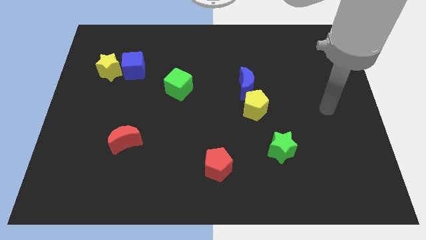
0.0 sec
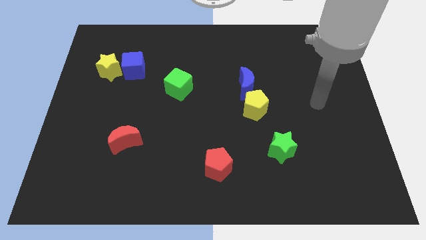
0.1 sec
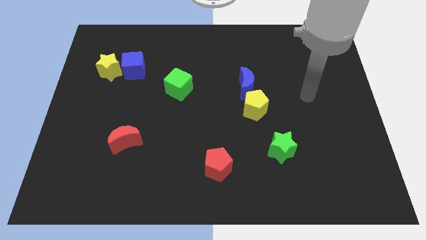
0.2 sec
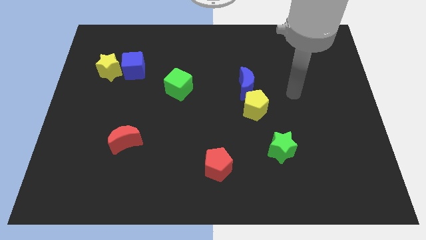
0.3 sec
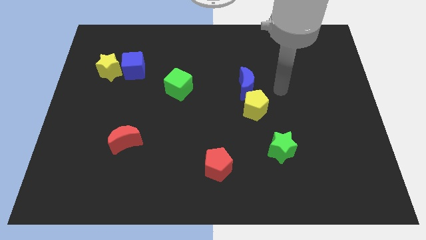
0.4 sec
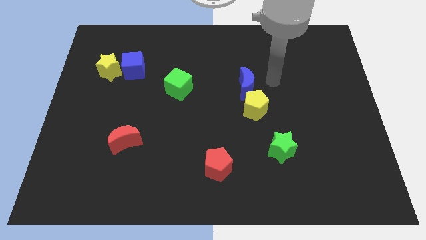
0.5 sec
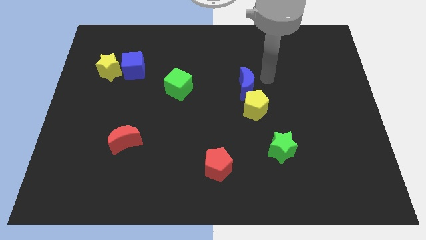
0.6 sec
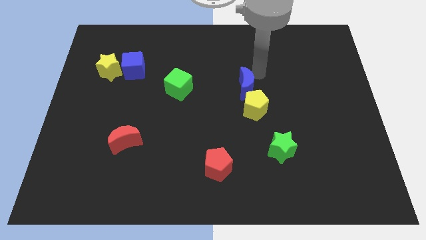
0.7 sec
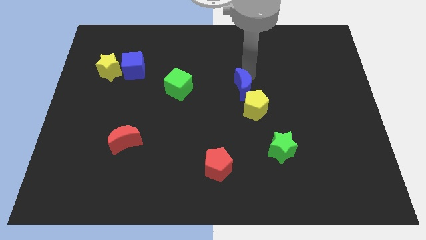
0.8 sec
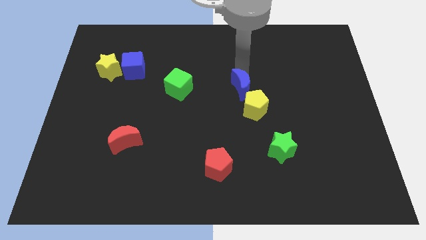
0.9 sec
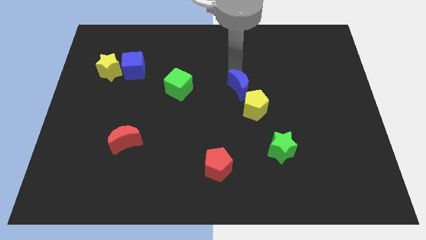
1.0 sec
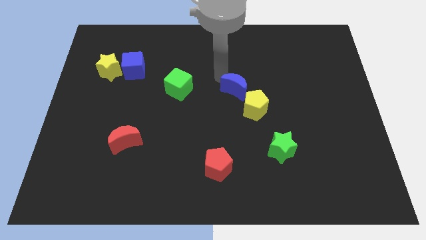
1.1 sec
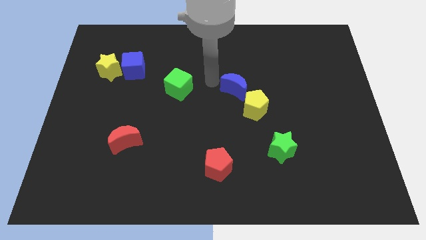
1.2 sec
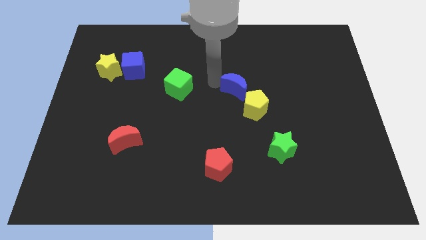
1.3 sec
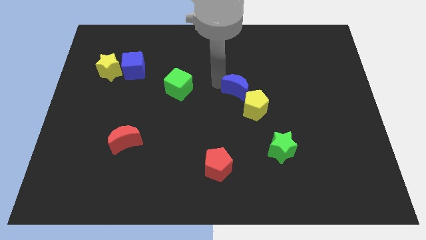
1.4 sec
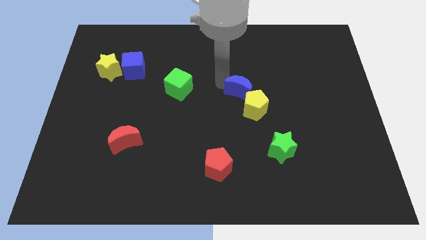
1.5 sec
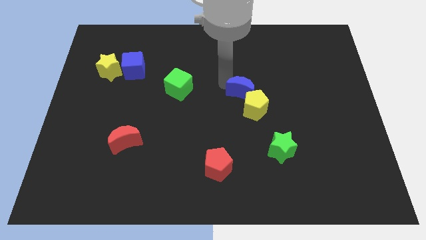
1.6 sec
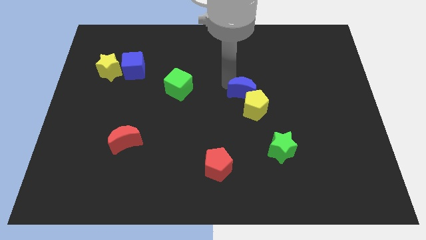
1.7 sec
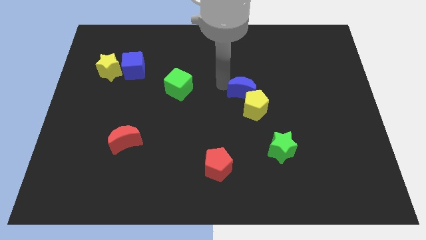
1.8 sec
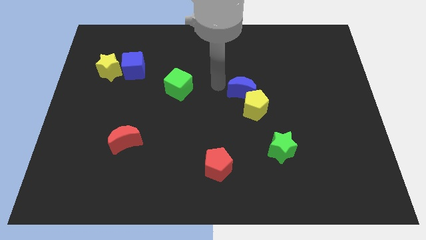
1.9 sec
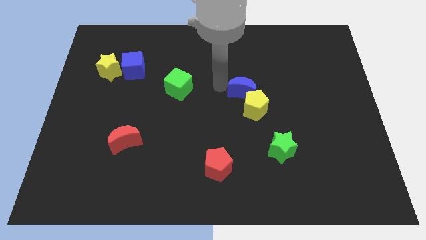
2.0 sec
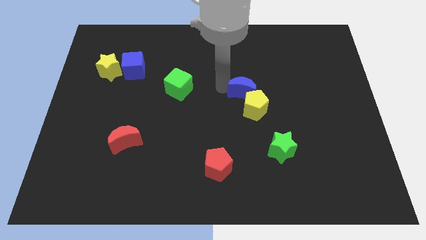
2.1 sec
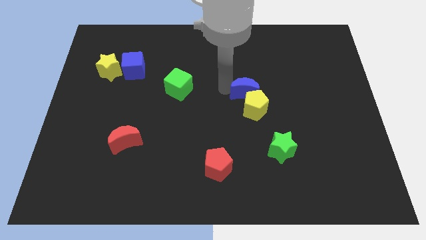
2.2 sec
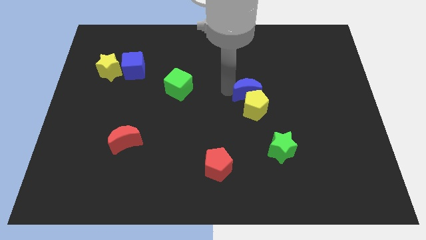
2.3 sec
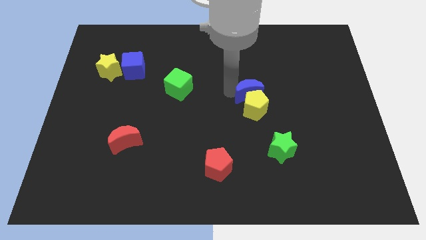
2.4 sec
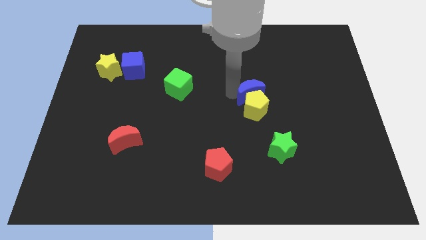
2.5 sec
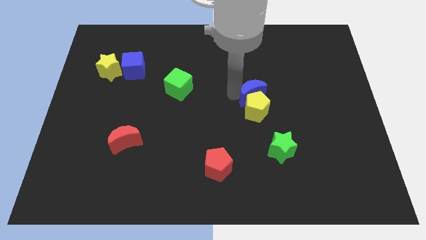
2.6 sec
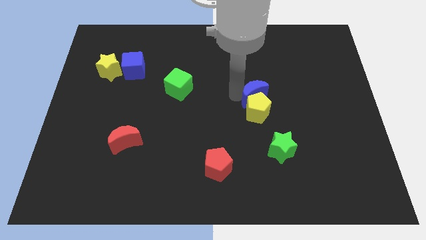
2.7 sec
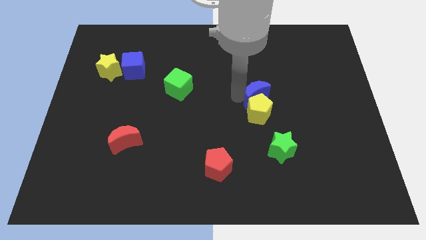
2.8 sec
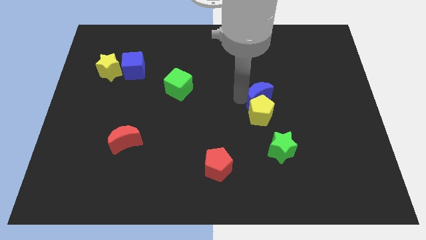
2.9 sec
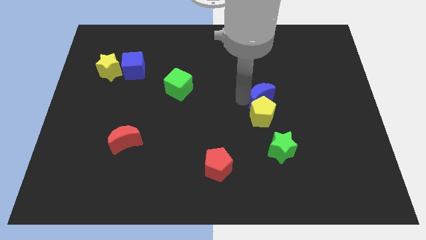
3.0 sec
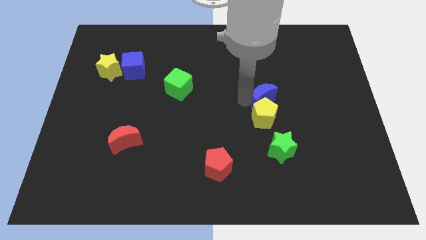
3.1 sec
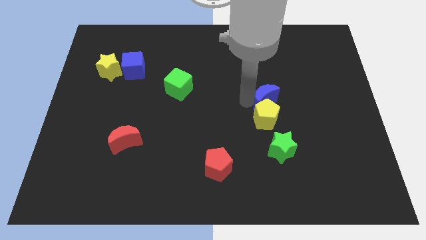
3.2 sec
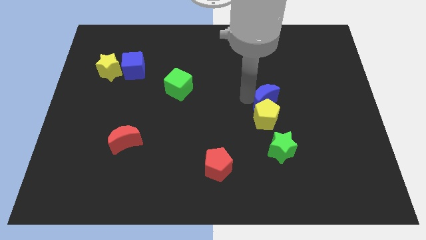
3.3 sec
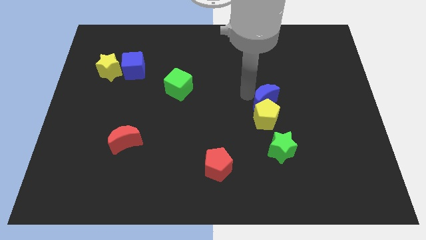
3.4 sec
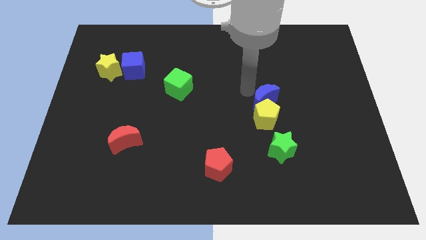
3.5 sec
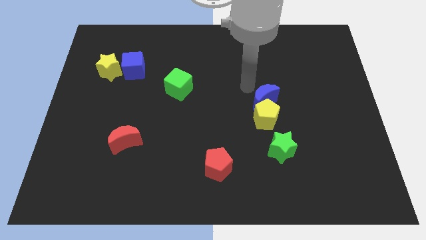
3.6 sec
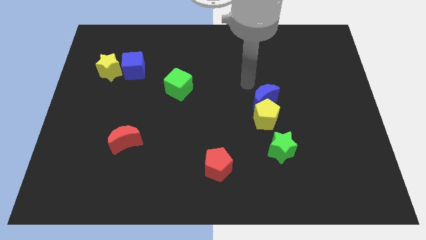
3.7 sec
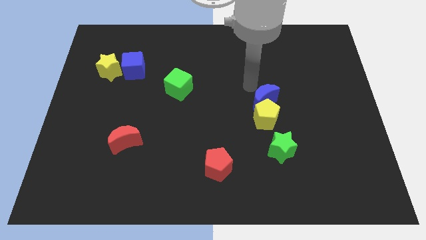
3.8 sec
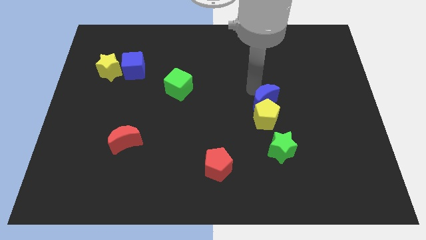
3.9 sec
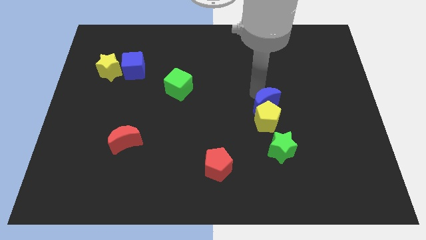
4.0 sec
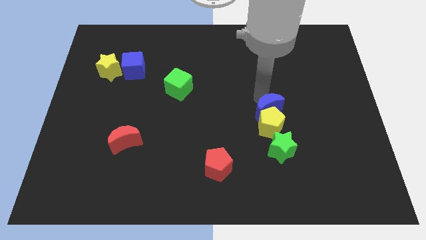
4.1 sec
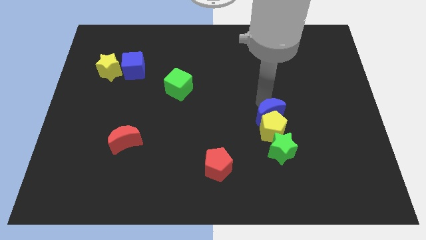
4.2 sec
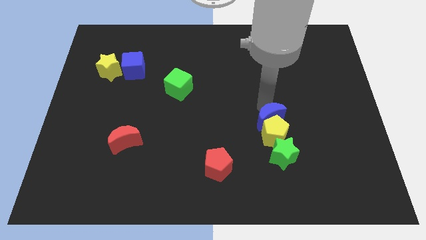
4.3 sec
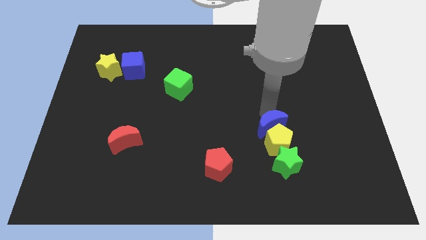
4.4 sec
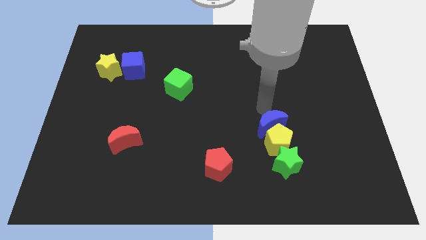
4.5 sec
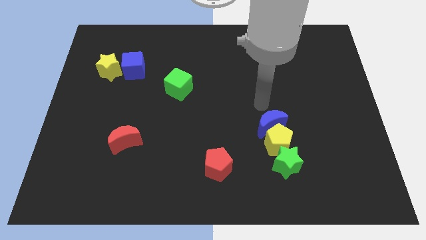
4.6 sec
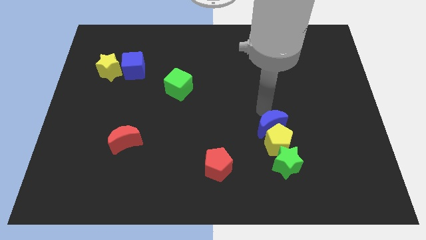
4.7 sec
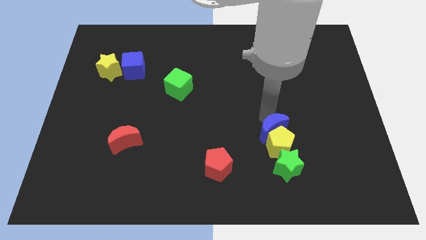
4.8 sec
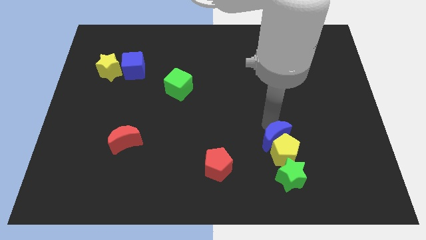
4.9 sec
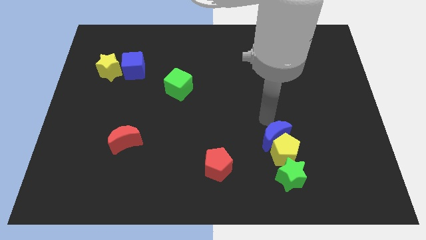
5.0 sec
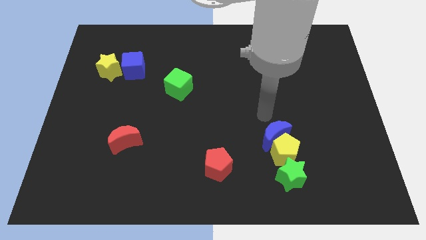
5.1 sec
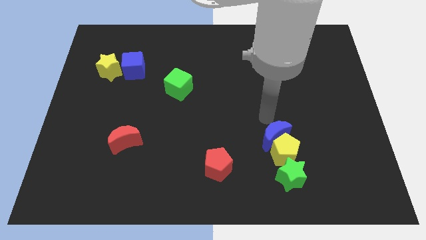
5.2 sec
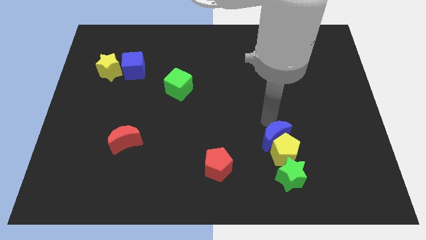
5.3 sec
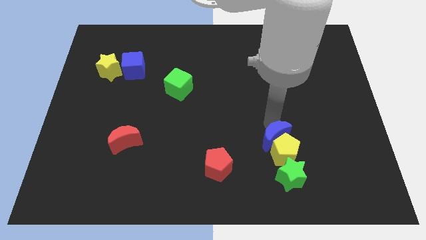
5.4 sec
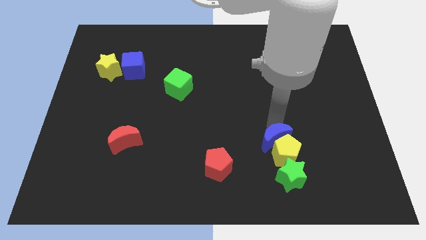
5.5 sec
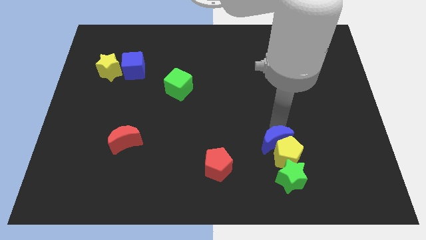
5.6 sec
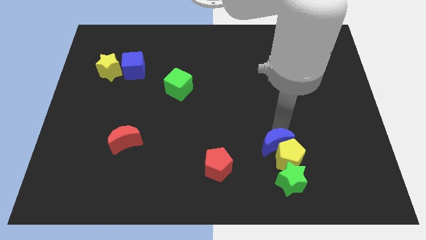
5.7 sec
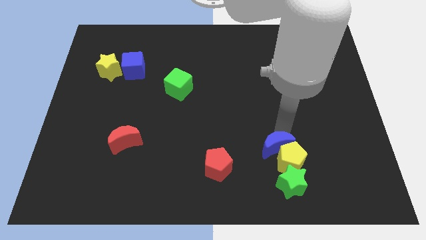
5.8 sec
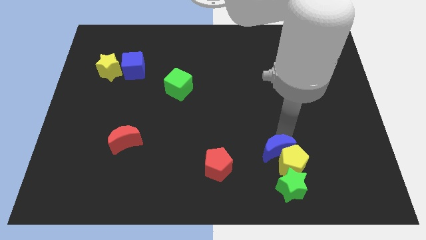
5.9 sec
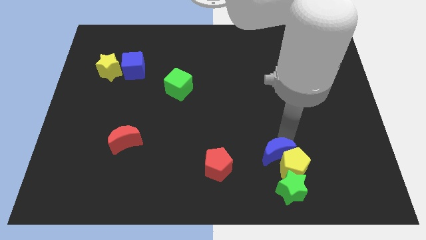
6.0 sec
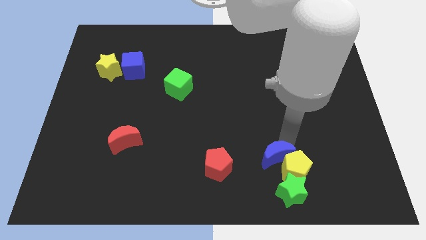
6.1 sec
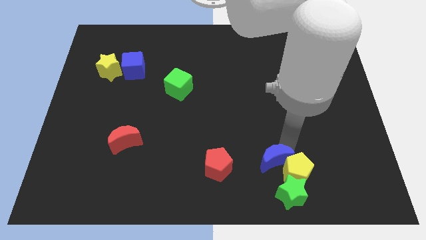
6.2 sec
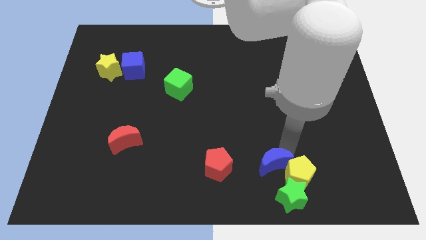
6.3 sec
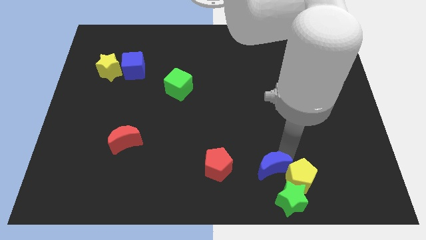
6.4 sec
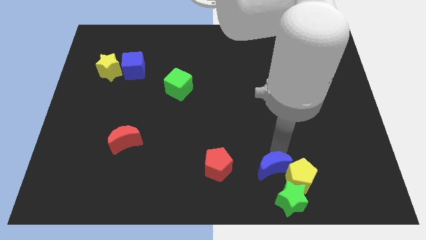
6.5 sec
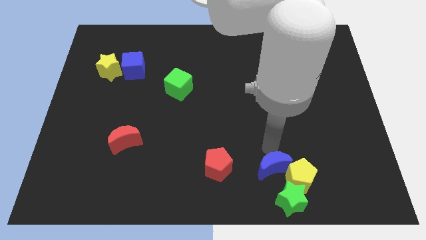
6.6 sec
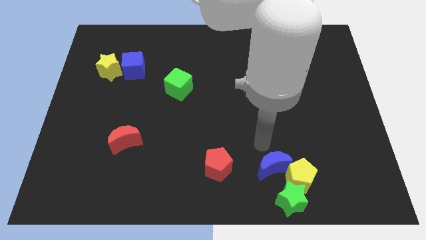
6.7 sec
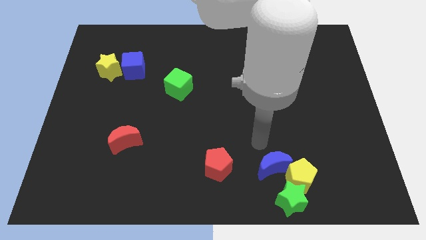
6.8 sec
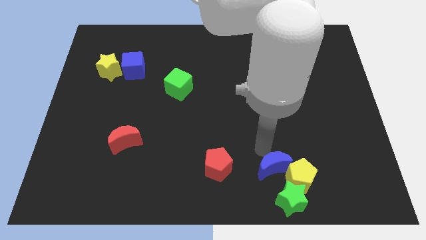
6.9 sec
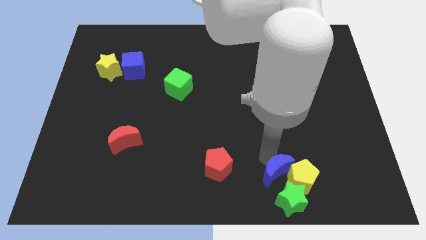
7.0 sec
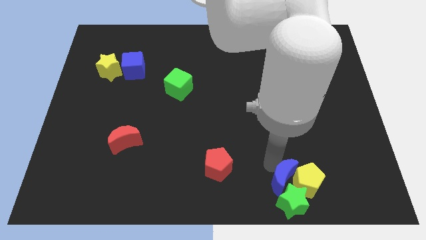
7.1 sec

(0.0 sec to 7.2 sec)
put the blue moon next to the green star
